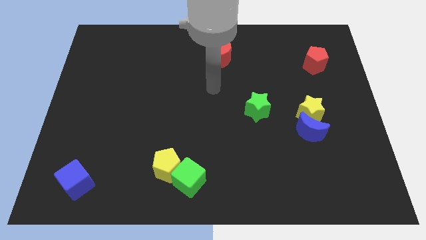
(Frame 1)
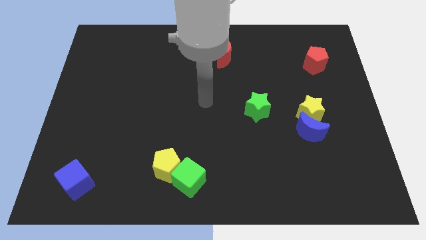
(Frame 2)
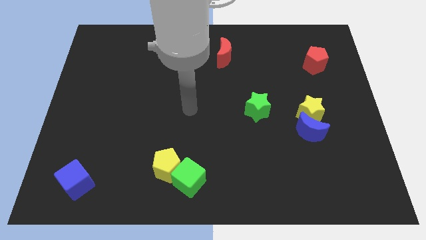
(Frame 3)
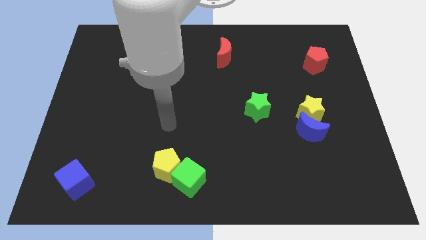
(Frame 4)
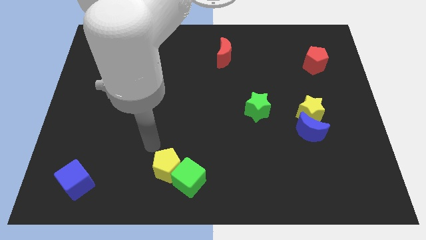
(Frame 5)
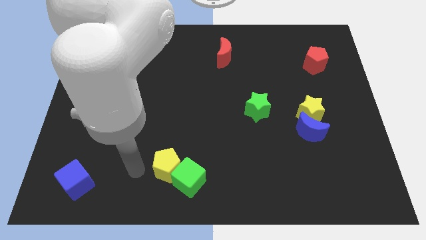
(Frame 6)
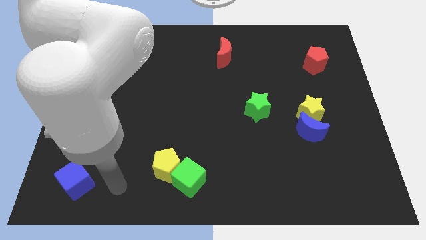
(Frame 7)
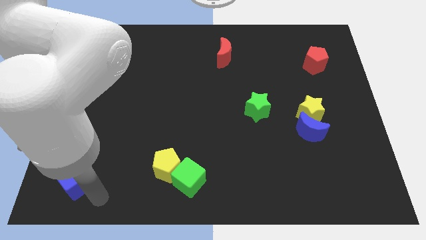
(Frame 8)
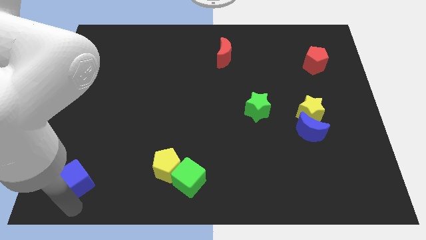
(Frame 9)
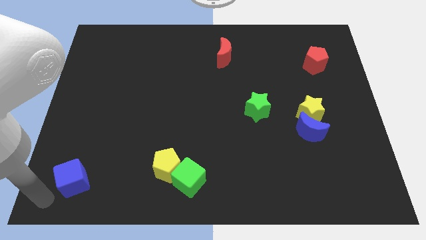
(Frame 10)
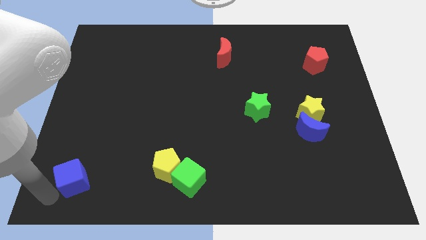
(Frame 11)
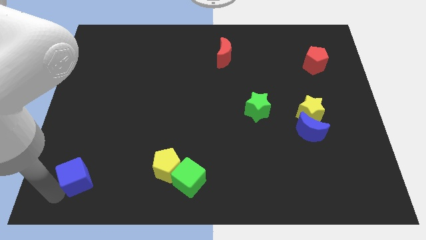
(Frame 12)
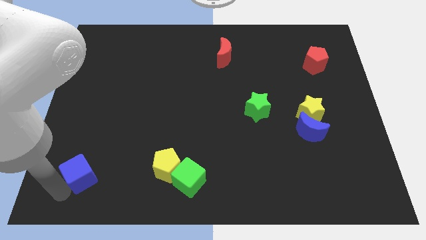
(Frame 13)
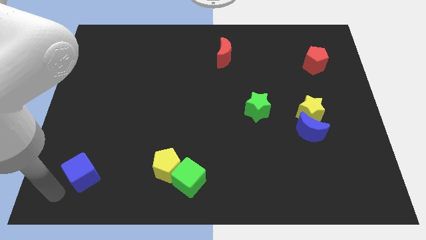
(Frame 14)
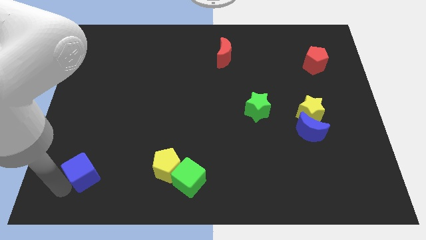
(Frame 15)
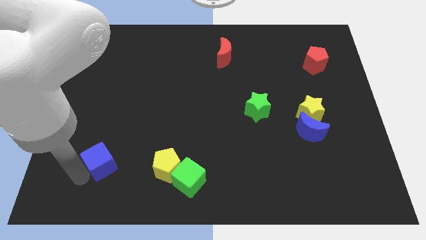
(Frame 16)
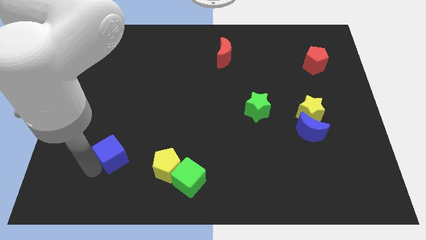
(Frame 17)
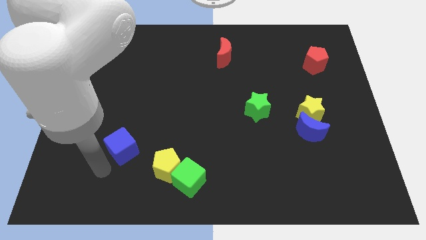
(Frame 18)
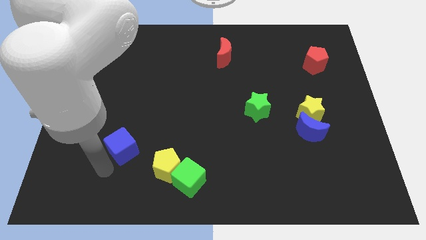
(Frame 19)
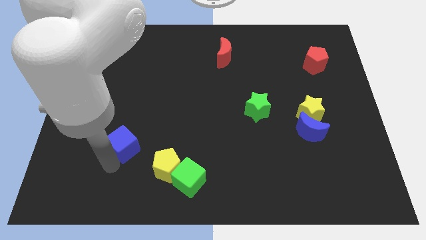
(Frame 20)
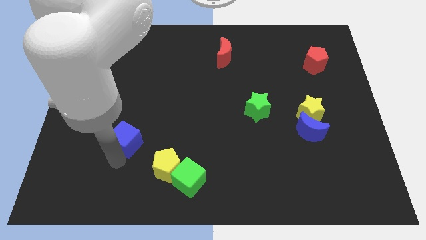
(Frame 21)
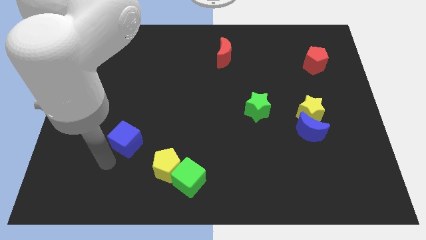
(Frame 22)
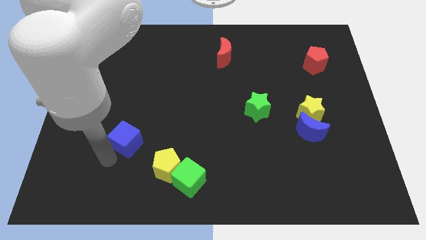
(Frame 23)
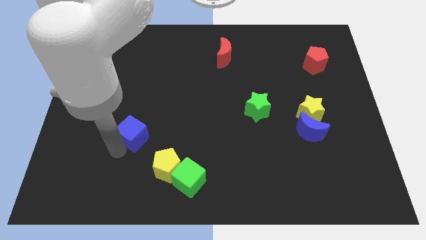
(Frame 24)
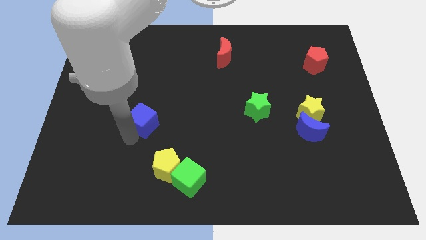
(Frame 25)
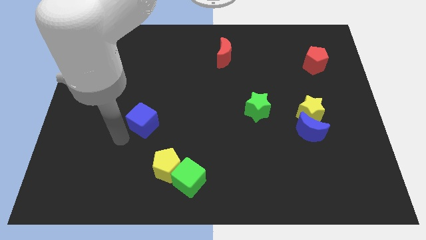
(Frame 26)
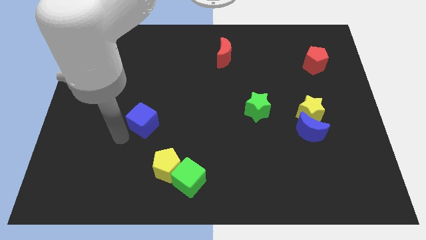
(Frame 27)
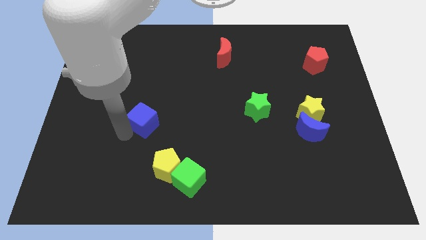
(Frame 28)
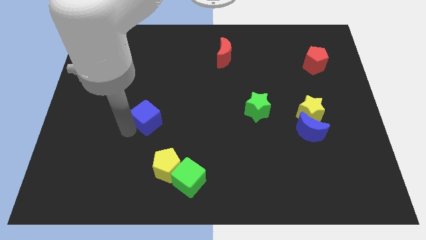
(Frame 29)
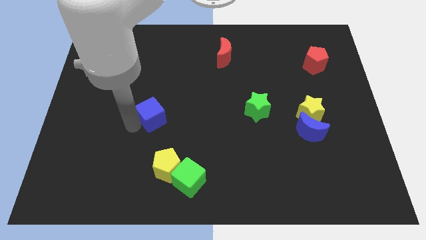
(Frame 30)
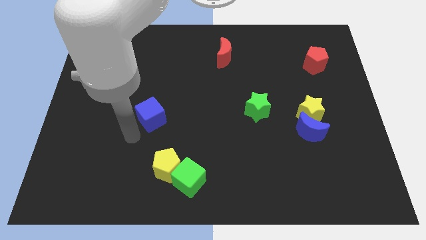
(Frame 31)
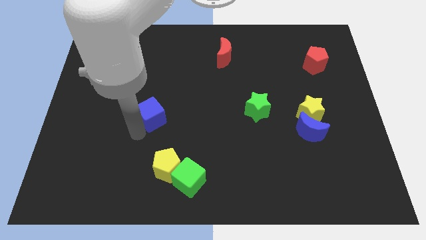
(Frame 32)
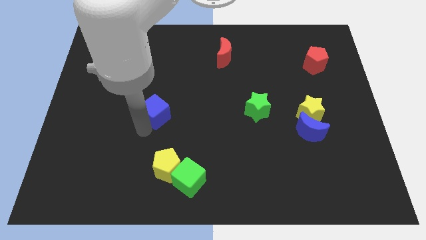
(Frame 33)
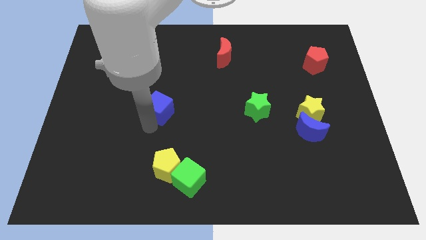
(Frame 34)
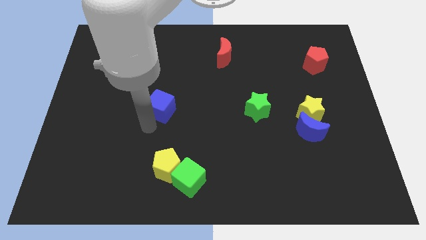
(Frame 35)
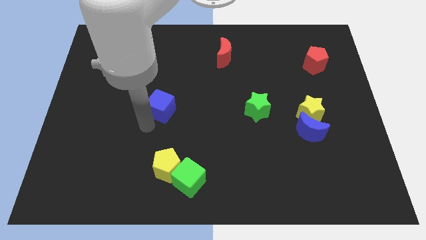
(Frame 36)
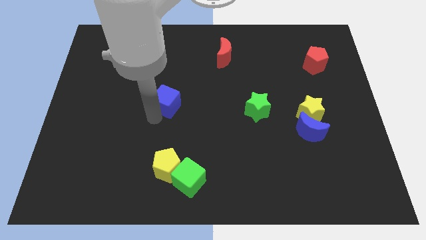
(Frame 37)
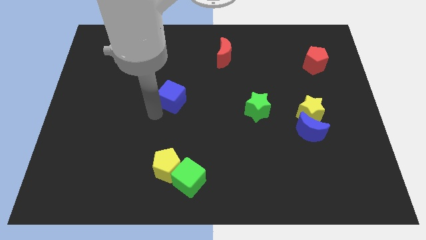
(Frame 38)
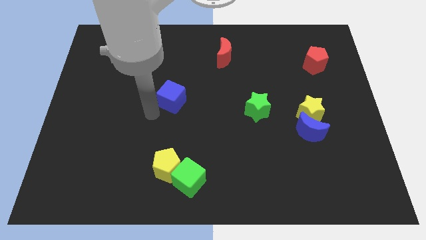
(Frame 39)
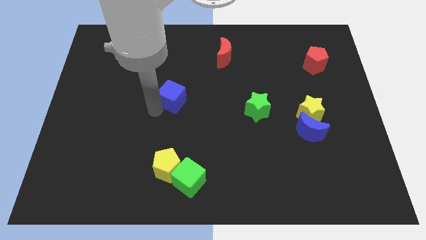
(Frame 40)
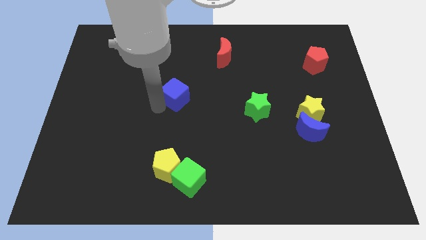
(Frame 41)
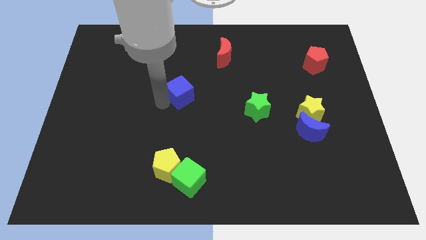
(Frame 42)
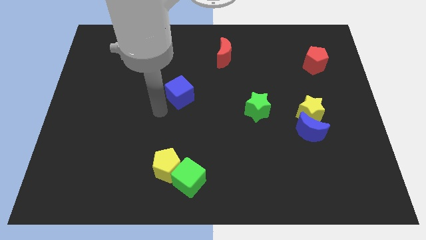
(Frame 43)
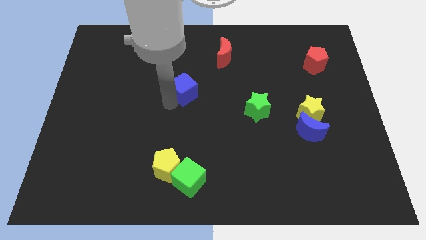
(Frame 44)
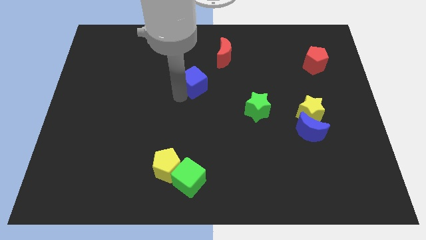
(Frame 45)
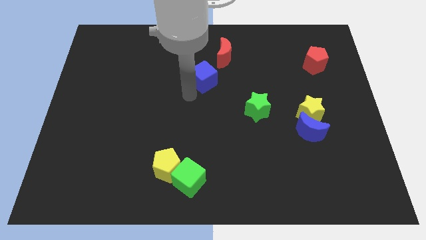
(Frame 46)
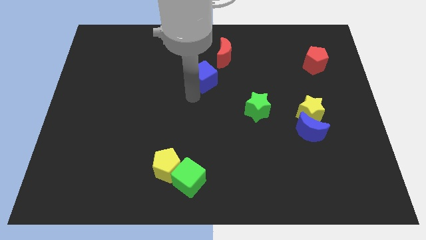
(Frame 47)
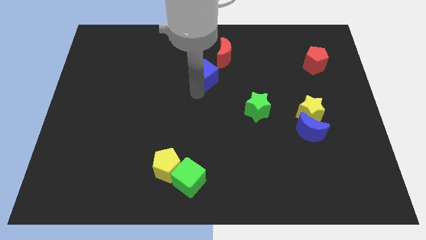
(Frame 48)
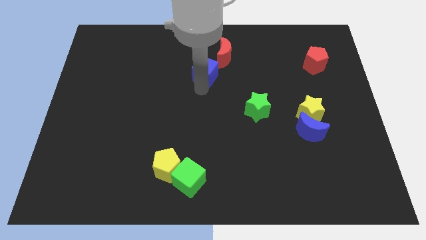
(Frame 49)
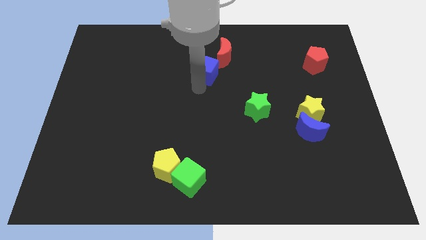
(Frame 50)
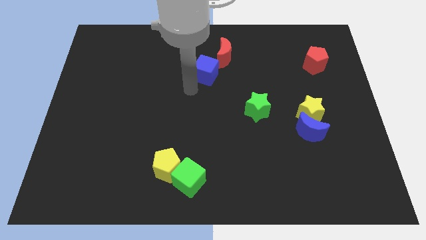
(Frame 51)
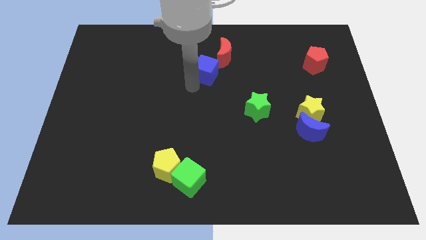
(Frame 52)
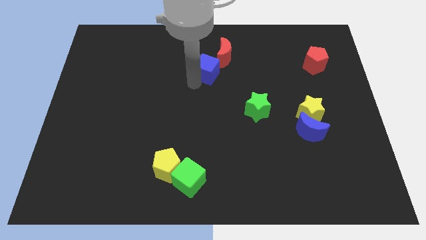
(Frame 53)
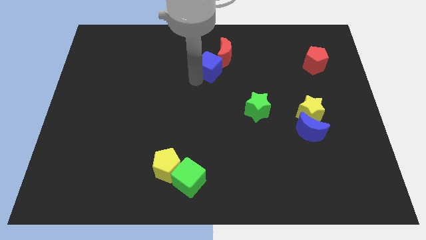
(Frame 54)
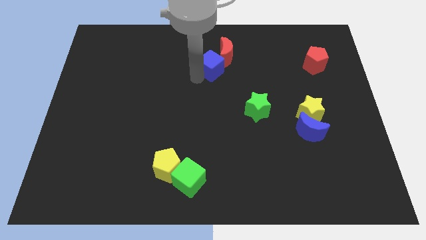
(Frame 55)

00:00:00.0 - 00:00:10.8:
push the blue cube towards the red moon

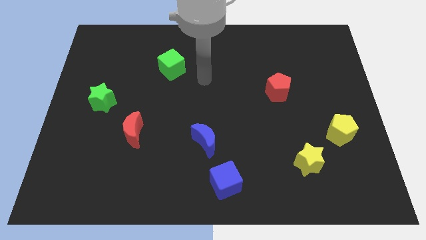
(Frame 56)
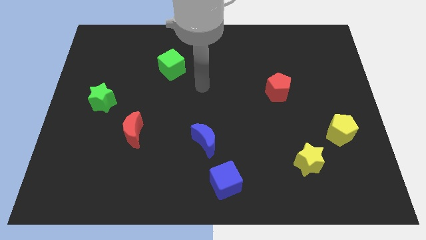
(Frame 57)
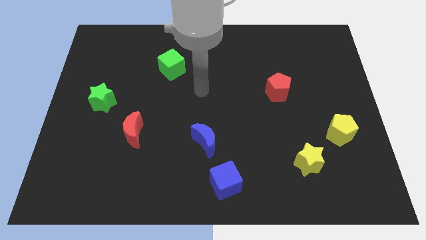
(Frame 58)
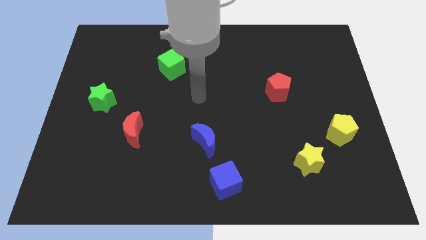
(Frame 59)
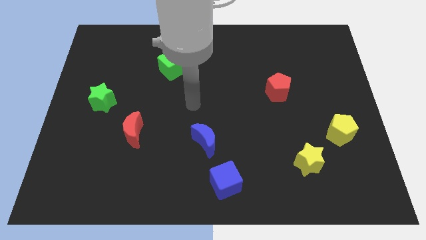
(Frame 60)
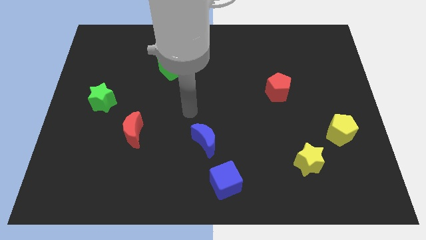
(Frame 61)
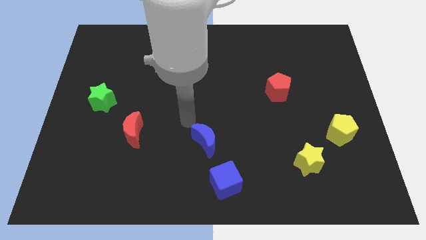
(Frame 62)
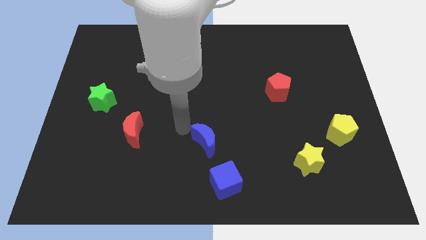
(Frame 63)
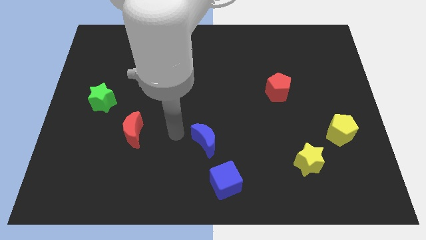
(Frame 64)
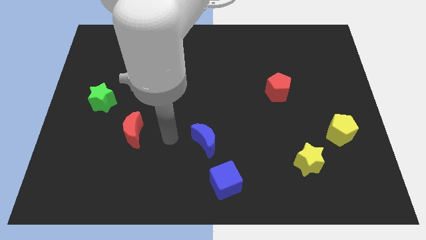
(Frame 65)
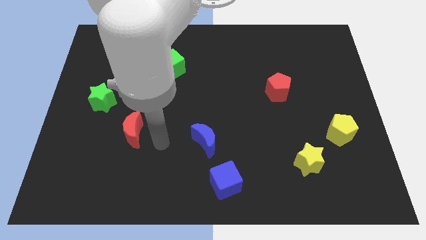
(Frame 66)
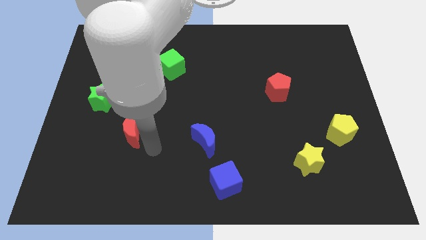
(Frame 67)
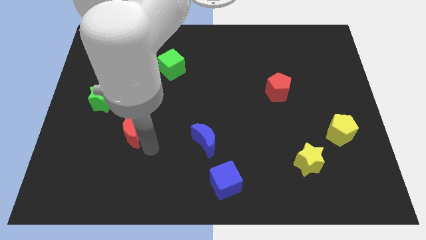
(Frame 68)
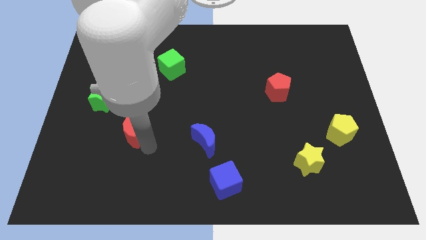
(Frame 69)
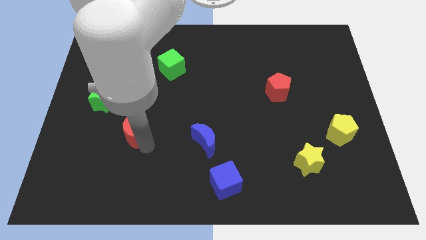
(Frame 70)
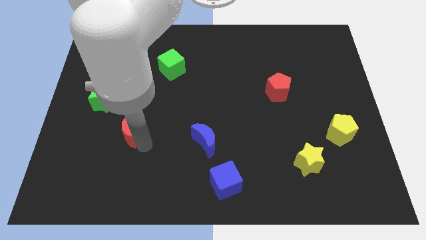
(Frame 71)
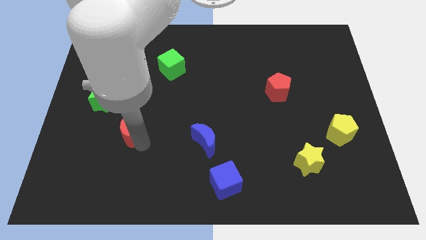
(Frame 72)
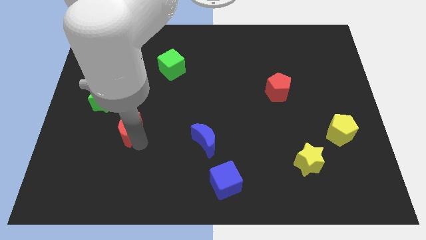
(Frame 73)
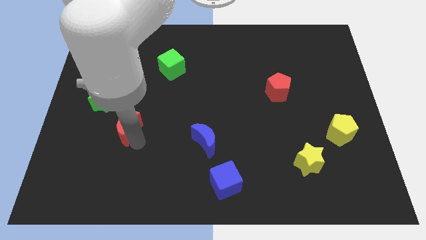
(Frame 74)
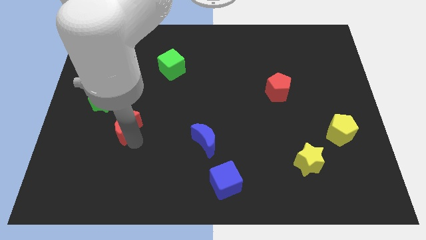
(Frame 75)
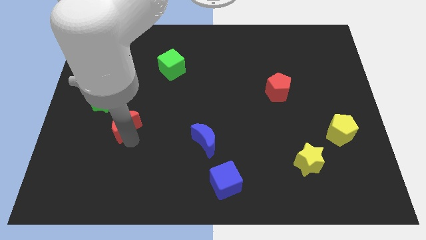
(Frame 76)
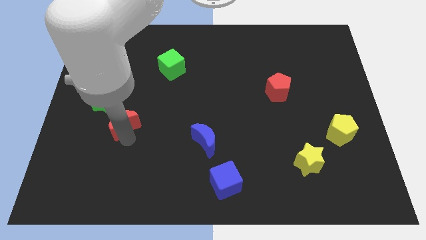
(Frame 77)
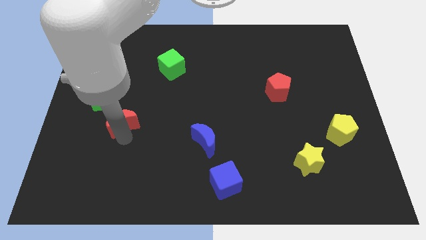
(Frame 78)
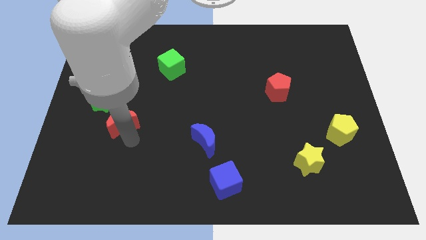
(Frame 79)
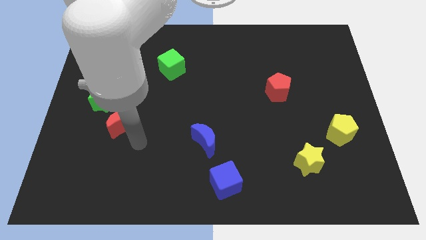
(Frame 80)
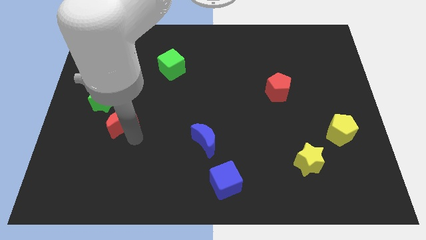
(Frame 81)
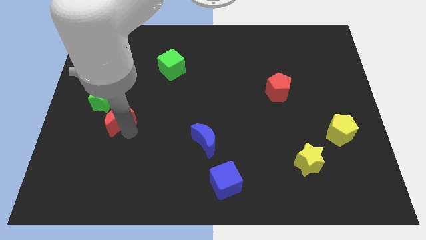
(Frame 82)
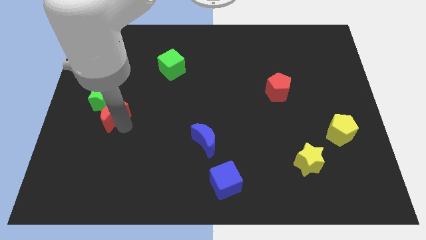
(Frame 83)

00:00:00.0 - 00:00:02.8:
move the red moon towards the green star
